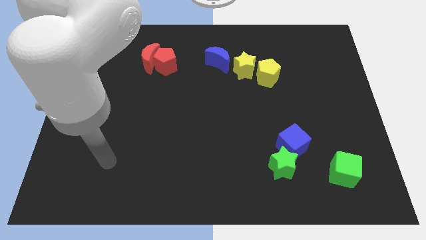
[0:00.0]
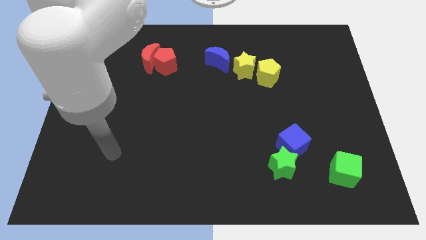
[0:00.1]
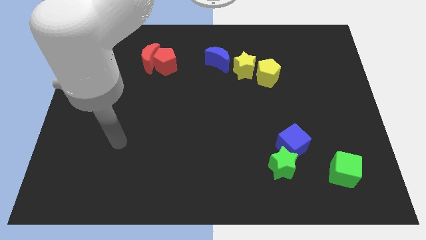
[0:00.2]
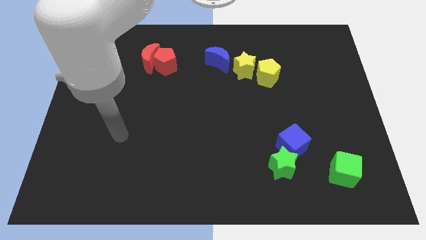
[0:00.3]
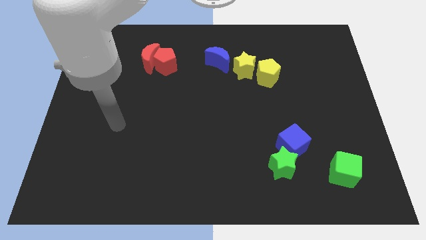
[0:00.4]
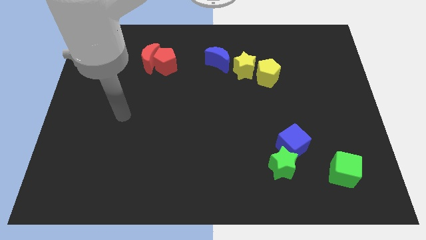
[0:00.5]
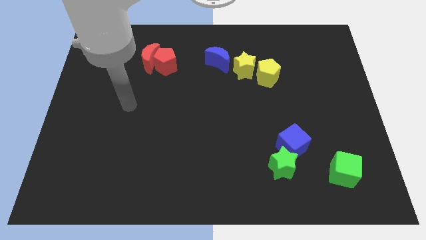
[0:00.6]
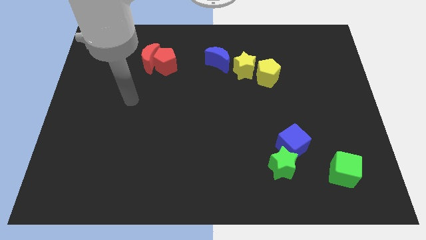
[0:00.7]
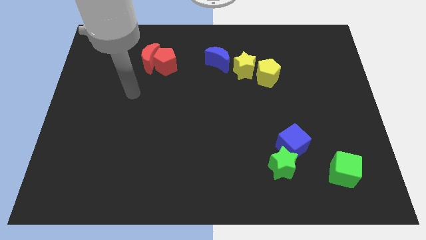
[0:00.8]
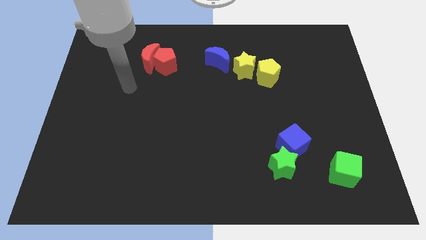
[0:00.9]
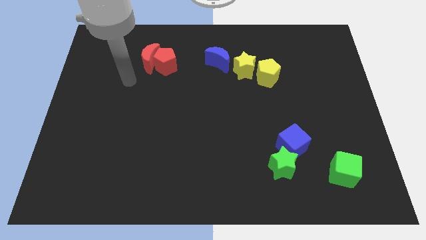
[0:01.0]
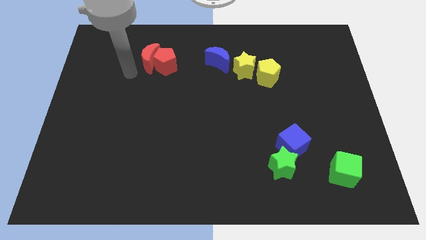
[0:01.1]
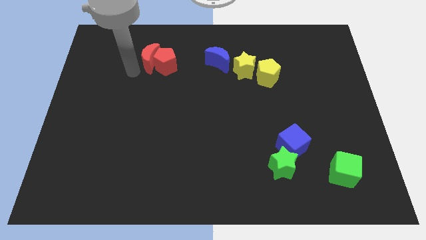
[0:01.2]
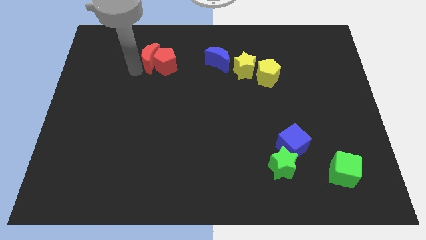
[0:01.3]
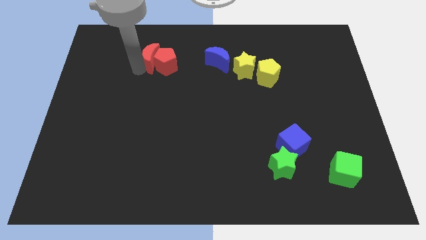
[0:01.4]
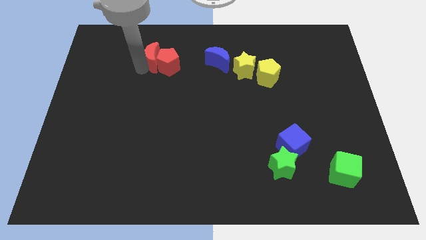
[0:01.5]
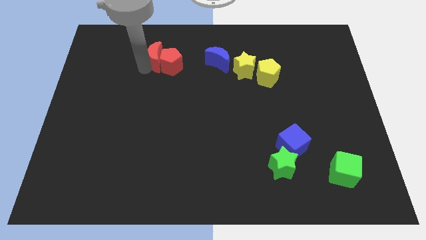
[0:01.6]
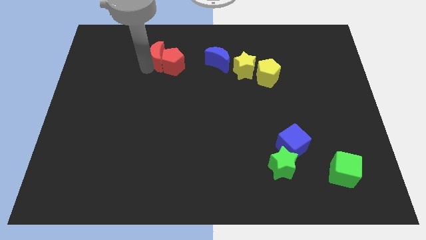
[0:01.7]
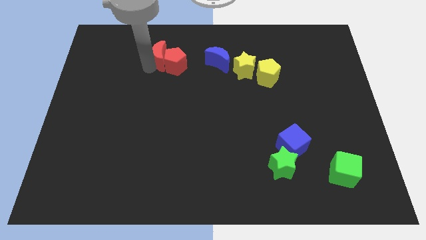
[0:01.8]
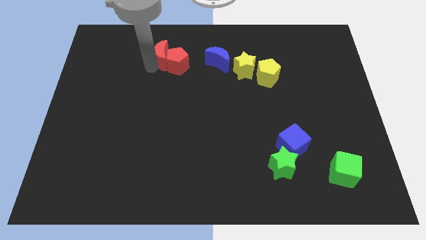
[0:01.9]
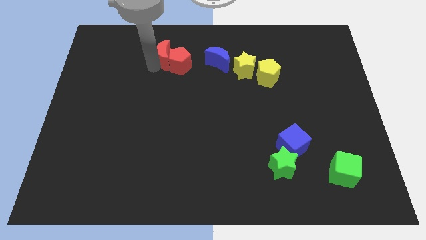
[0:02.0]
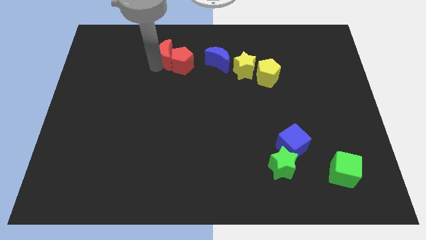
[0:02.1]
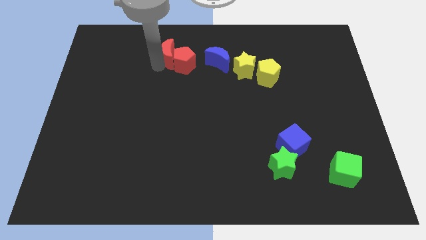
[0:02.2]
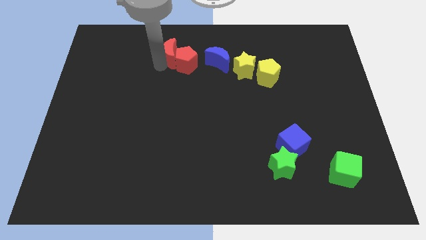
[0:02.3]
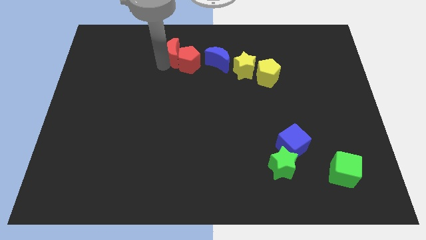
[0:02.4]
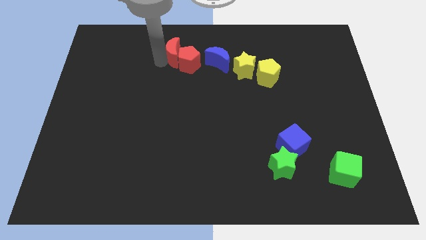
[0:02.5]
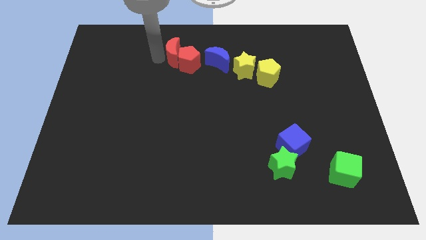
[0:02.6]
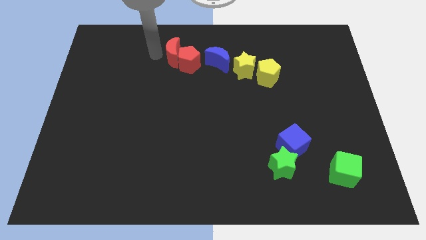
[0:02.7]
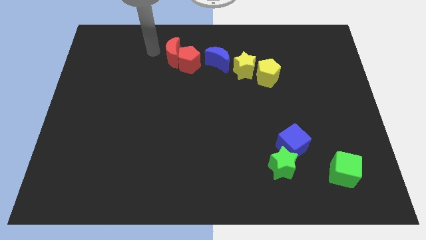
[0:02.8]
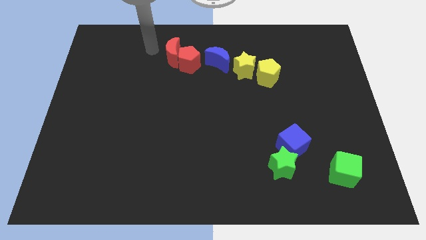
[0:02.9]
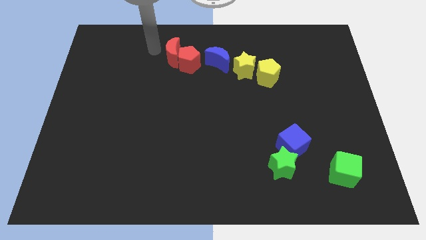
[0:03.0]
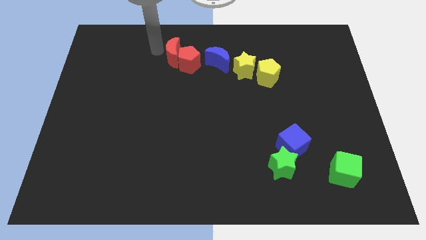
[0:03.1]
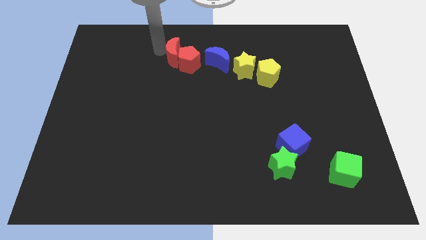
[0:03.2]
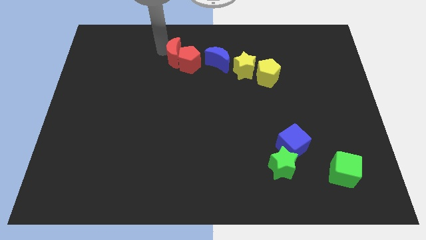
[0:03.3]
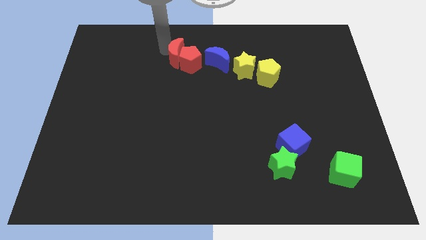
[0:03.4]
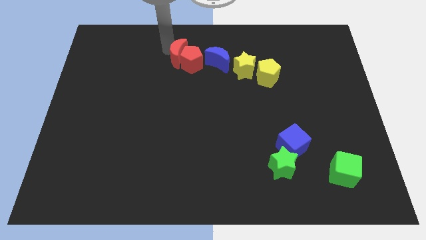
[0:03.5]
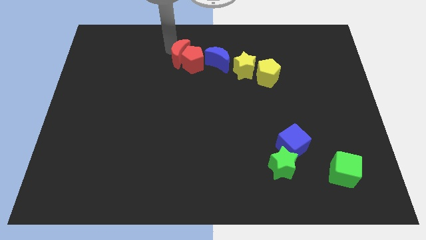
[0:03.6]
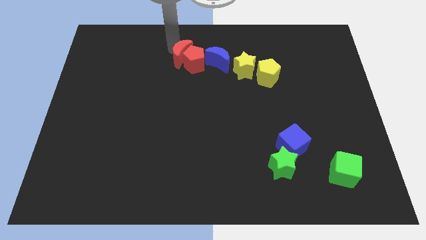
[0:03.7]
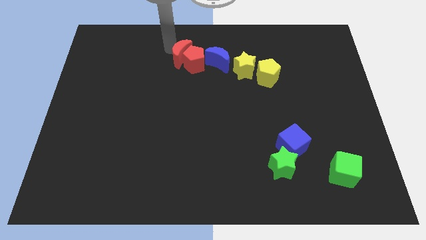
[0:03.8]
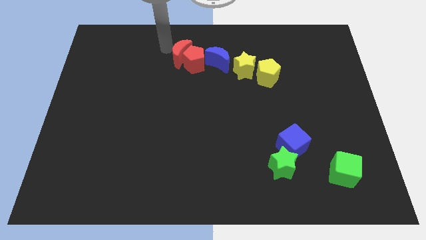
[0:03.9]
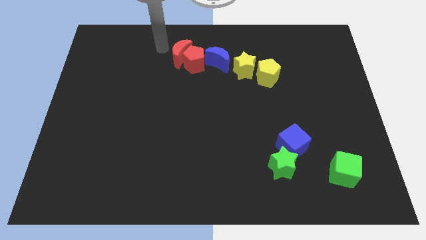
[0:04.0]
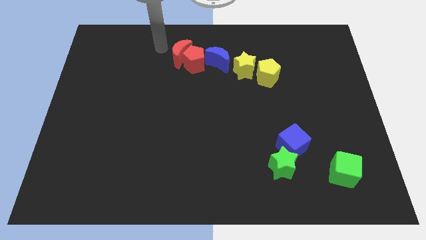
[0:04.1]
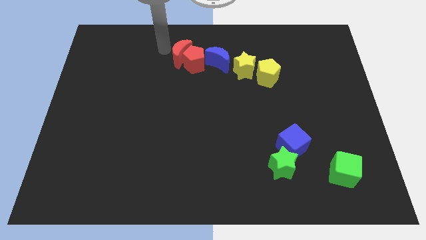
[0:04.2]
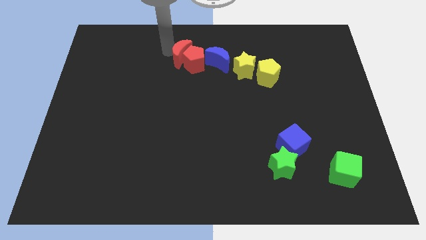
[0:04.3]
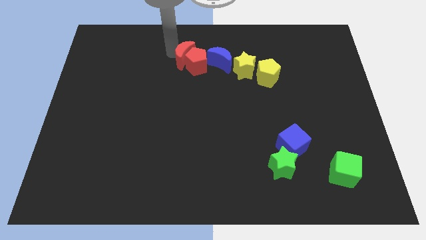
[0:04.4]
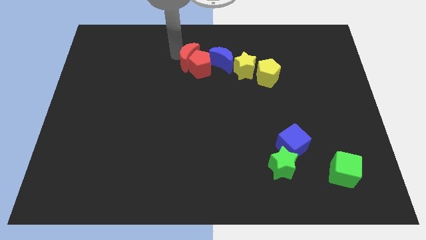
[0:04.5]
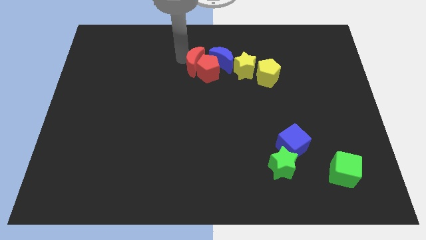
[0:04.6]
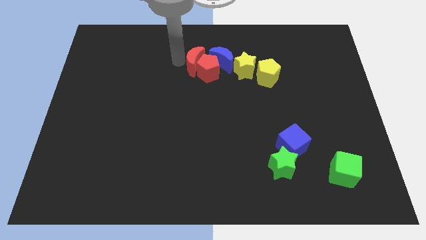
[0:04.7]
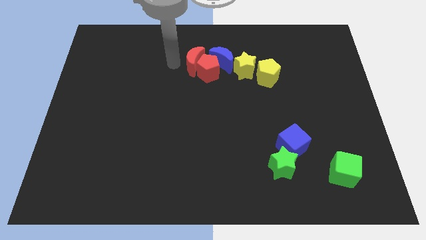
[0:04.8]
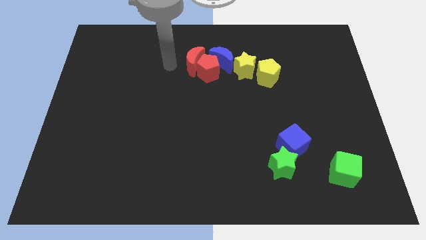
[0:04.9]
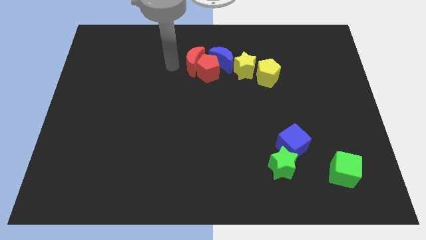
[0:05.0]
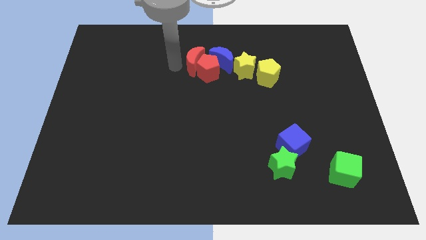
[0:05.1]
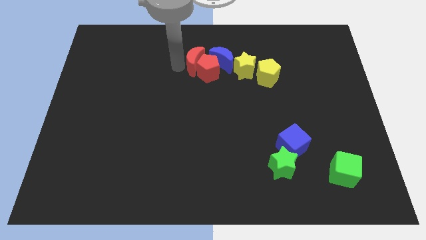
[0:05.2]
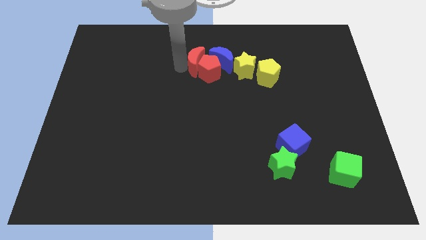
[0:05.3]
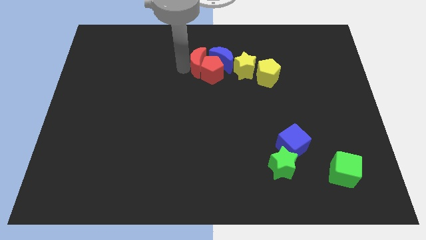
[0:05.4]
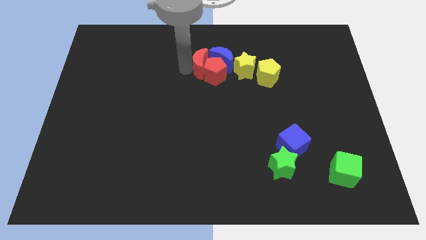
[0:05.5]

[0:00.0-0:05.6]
move the red moon towards the blue moon

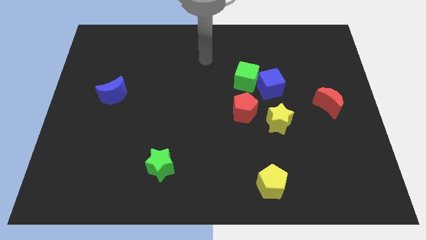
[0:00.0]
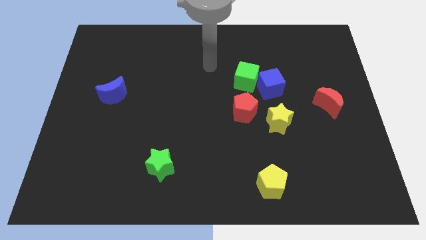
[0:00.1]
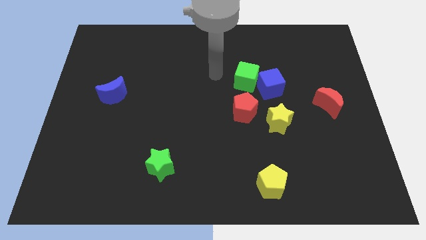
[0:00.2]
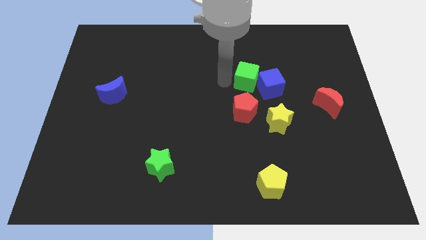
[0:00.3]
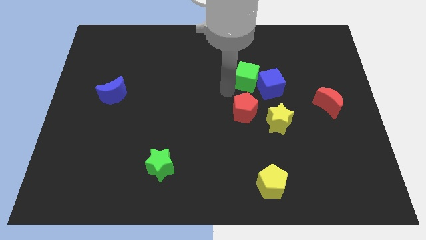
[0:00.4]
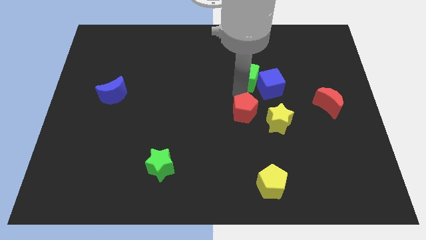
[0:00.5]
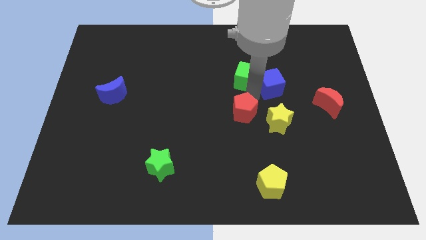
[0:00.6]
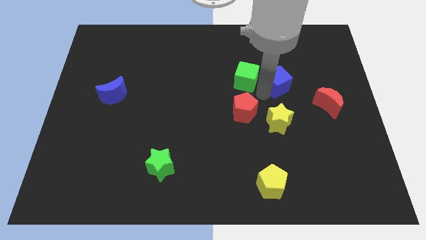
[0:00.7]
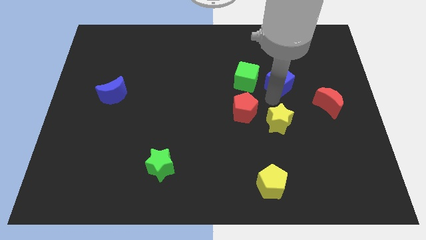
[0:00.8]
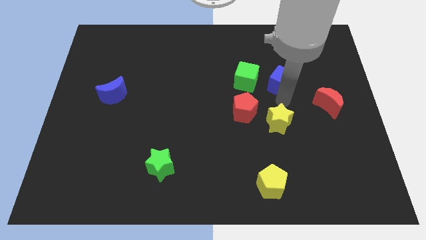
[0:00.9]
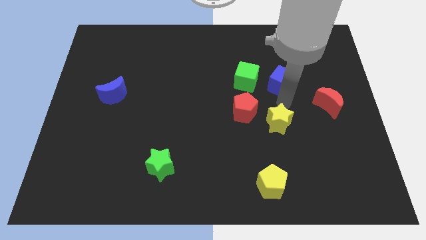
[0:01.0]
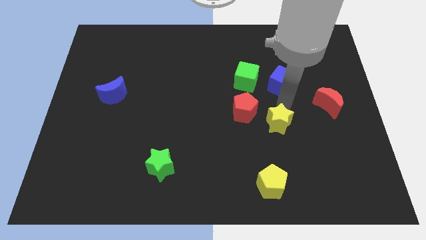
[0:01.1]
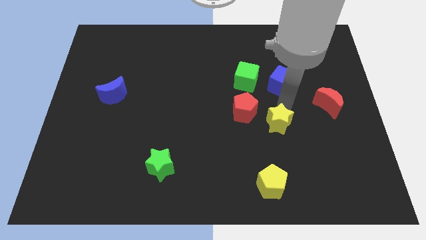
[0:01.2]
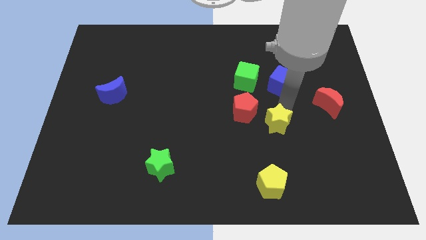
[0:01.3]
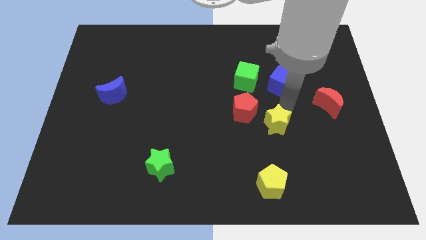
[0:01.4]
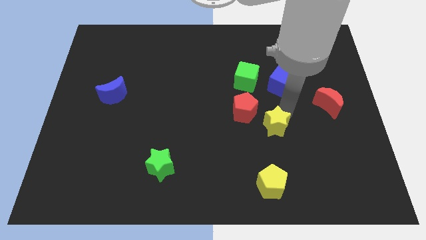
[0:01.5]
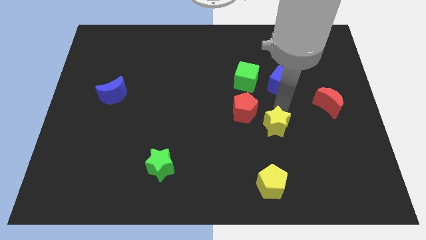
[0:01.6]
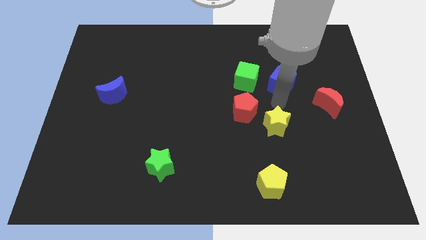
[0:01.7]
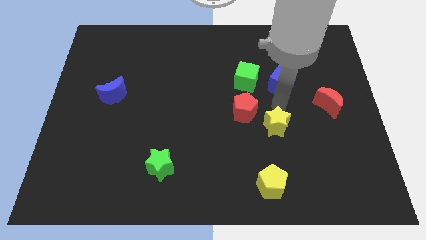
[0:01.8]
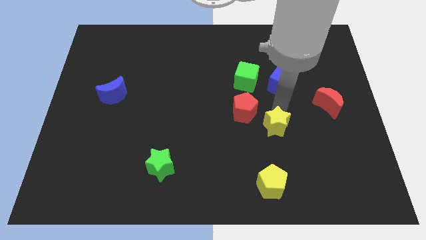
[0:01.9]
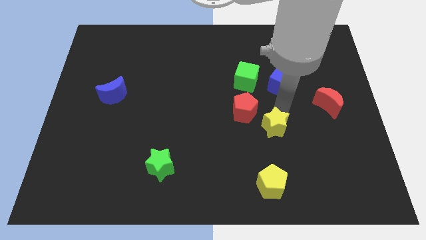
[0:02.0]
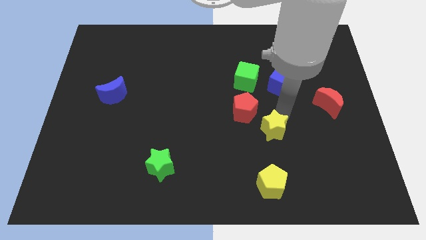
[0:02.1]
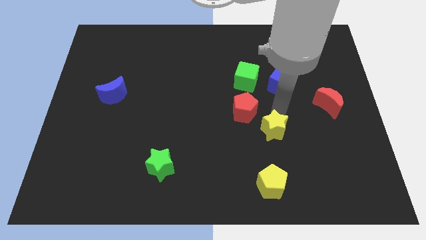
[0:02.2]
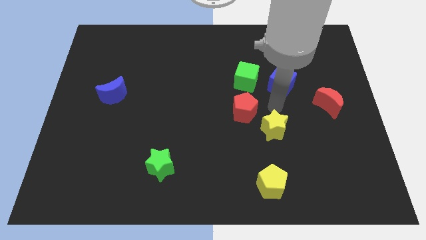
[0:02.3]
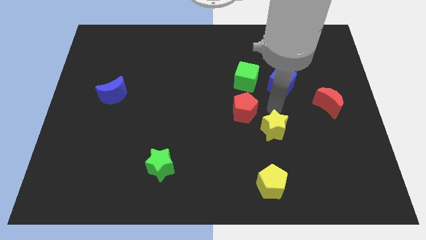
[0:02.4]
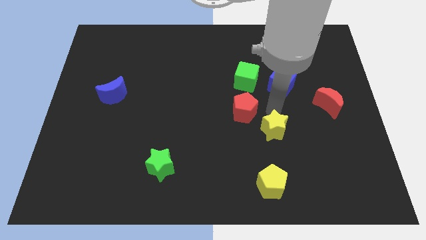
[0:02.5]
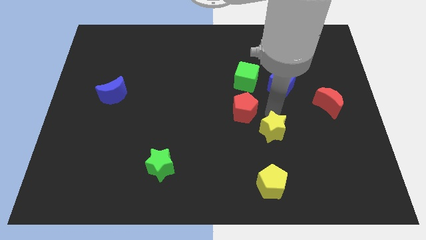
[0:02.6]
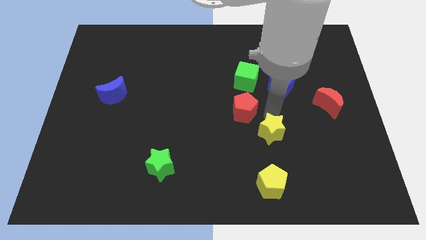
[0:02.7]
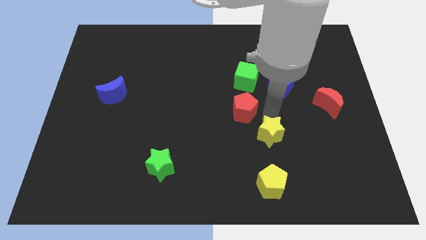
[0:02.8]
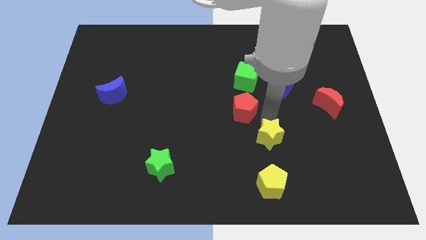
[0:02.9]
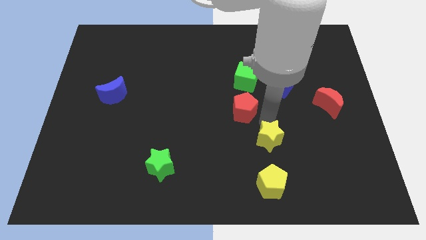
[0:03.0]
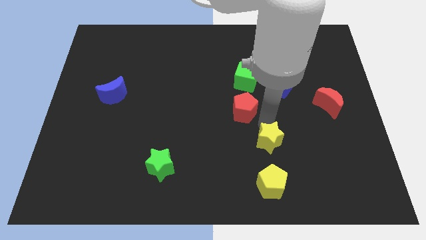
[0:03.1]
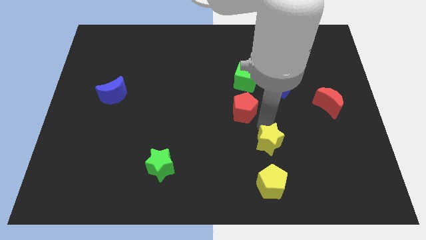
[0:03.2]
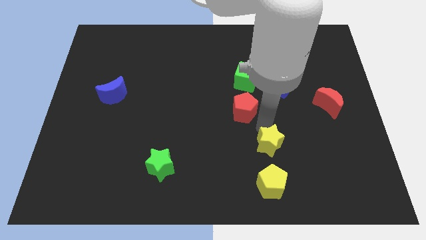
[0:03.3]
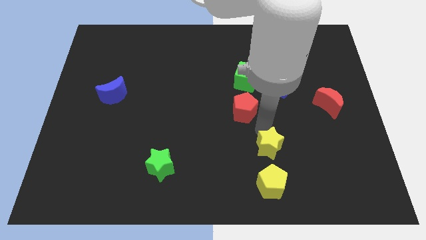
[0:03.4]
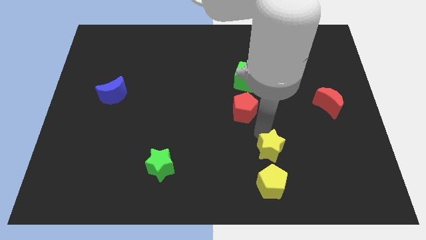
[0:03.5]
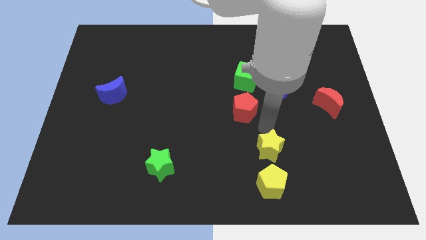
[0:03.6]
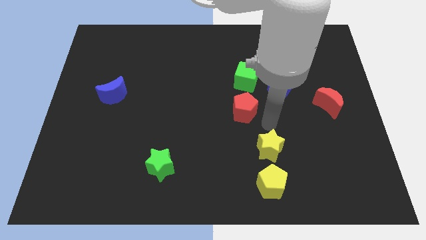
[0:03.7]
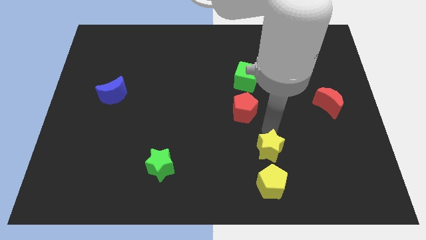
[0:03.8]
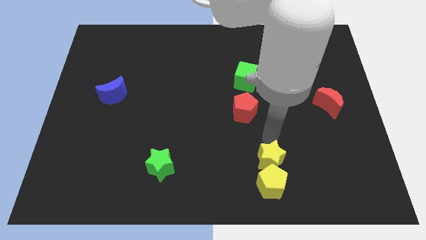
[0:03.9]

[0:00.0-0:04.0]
push the yellow star towards the yellow pentagon
